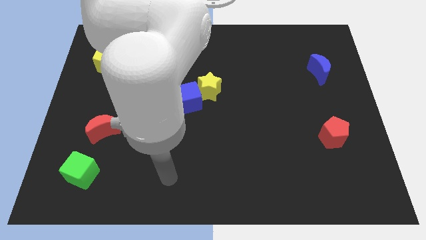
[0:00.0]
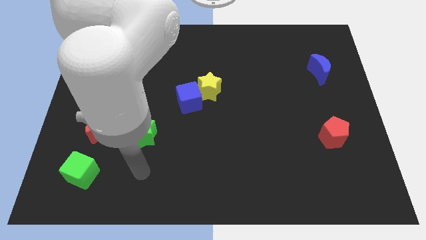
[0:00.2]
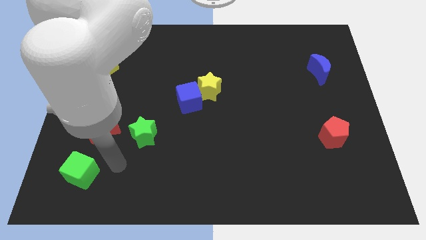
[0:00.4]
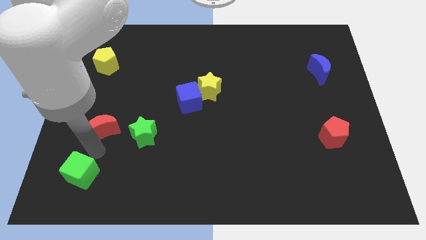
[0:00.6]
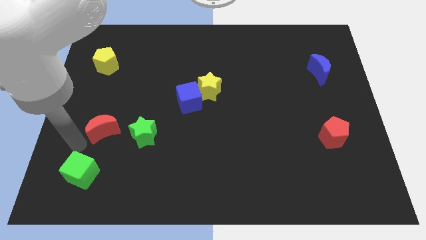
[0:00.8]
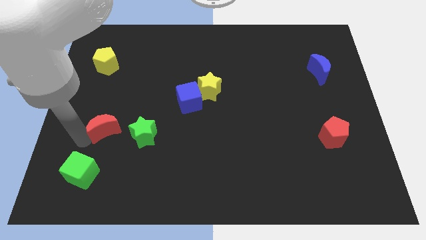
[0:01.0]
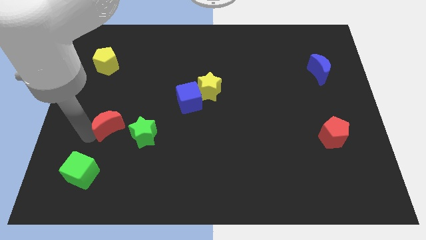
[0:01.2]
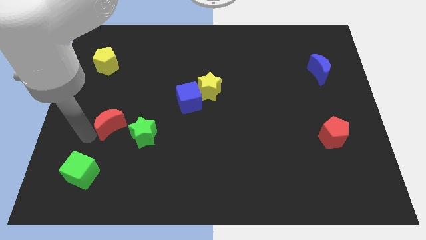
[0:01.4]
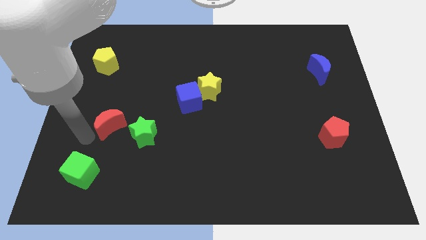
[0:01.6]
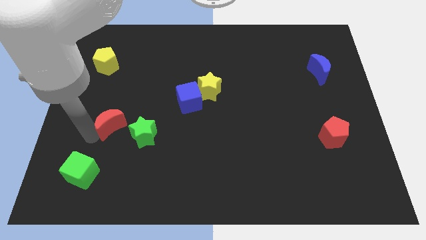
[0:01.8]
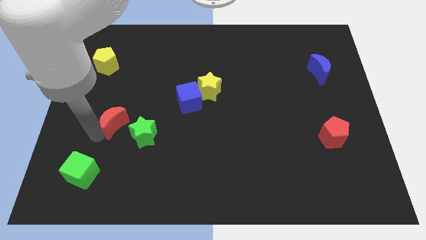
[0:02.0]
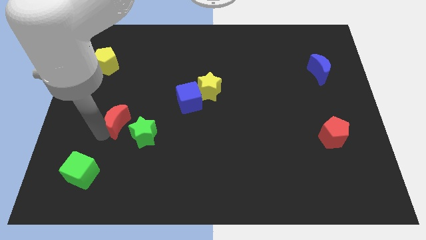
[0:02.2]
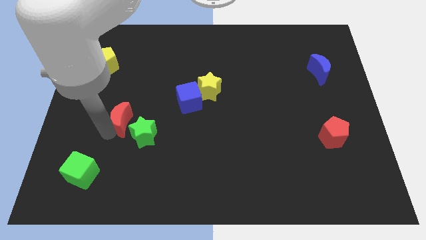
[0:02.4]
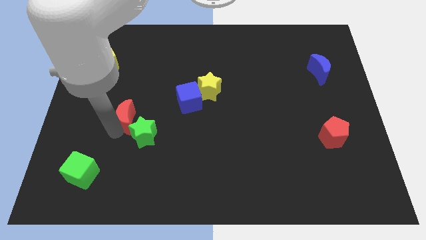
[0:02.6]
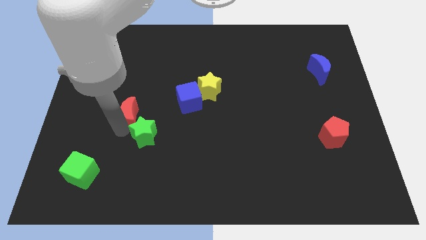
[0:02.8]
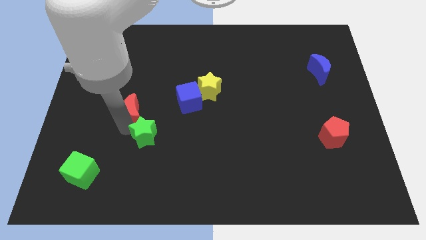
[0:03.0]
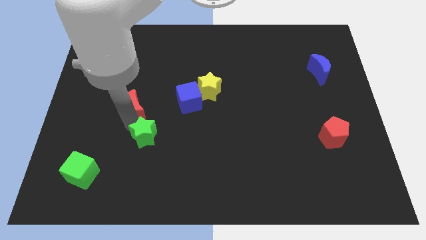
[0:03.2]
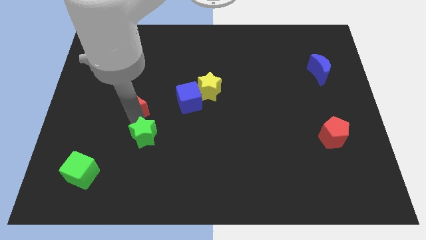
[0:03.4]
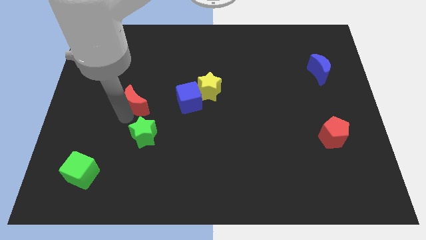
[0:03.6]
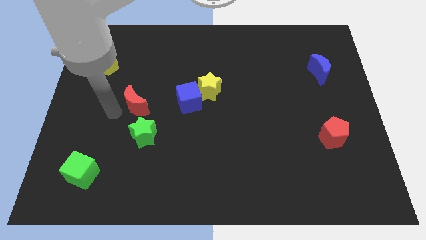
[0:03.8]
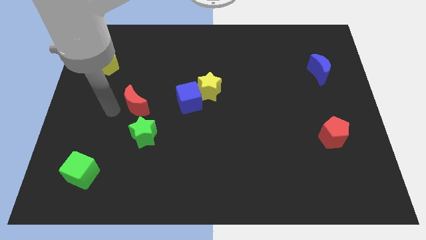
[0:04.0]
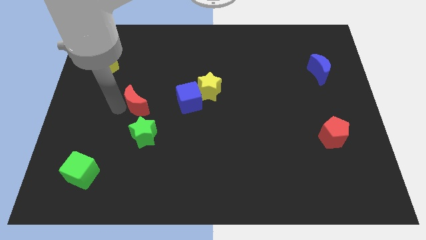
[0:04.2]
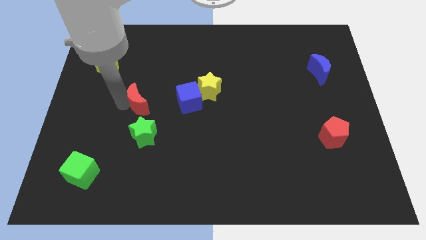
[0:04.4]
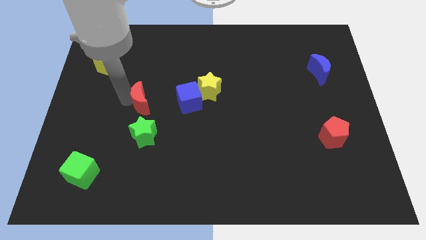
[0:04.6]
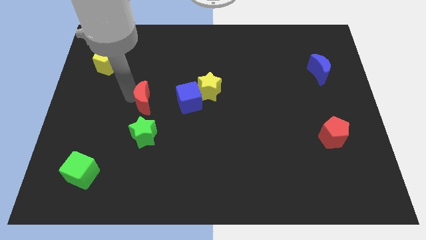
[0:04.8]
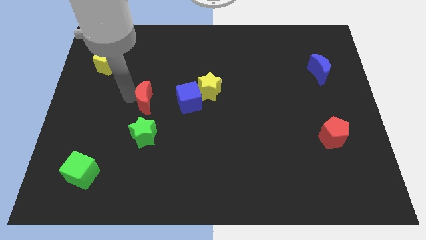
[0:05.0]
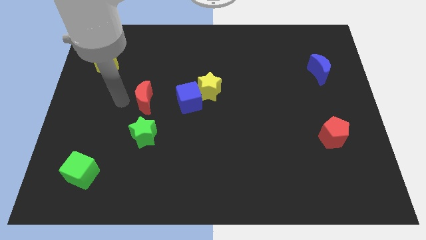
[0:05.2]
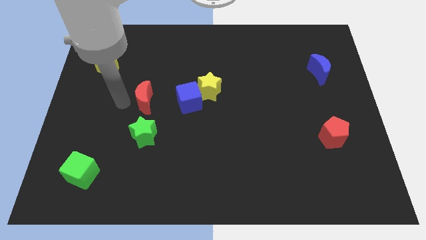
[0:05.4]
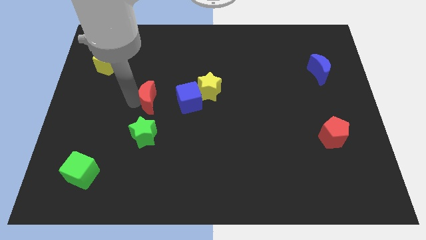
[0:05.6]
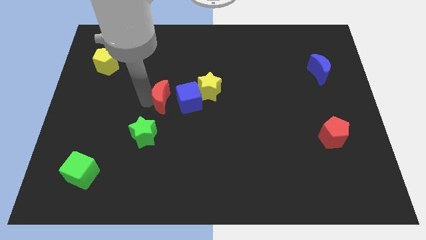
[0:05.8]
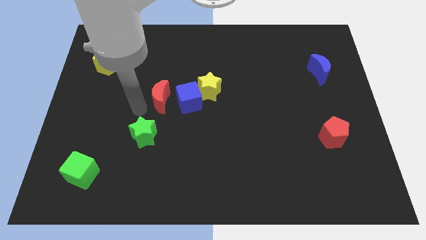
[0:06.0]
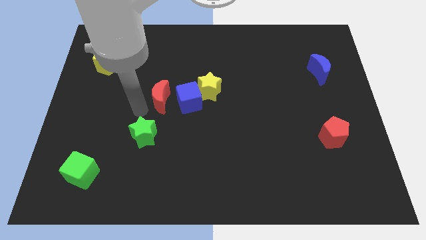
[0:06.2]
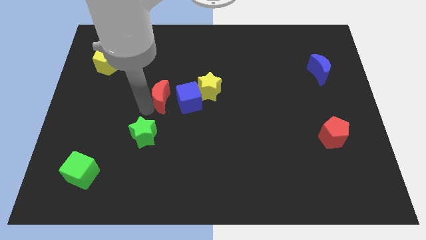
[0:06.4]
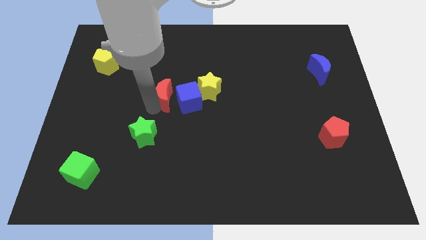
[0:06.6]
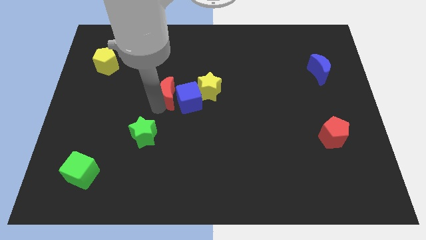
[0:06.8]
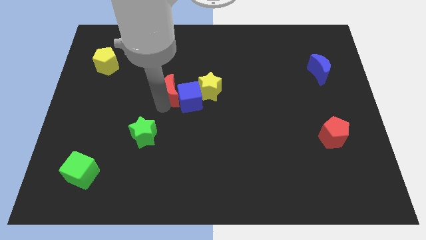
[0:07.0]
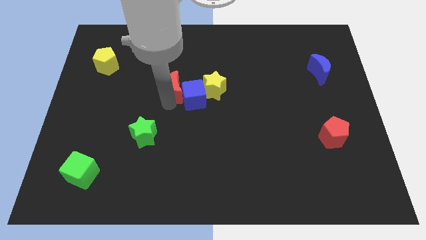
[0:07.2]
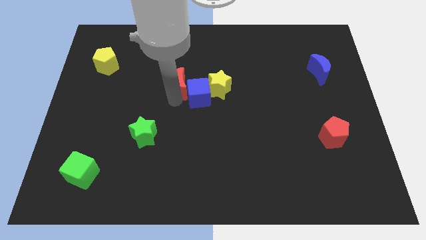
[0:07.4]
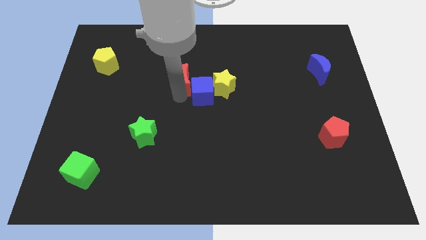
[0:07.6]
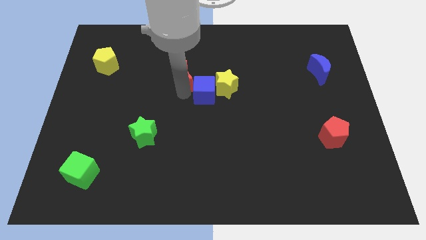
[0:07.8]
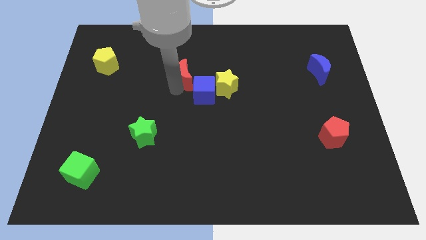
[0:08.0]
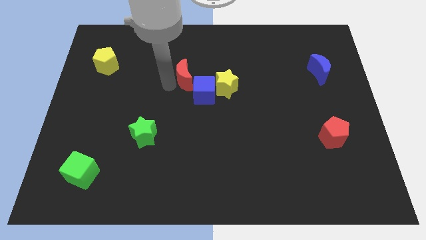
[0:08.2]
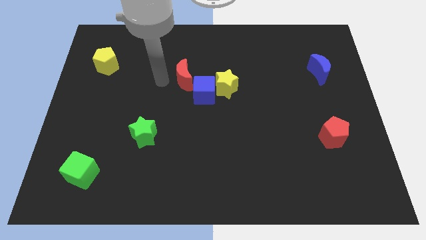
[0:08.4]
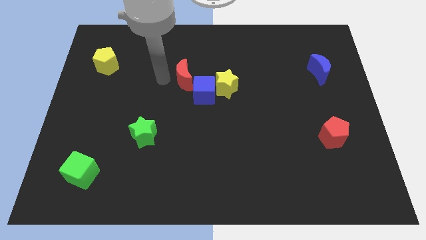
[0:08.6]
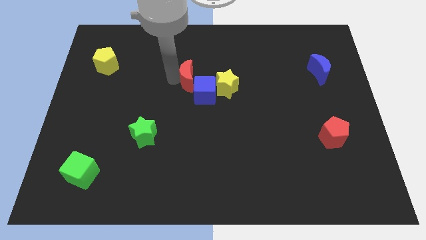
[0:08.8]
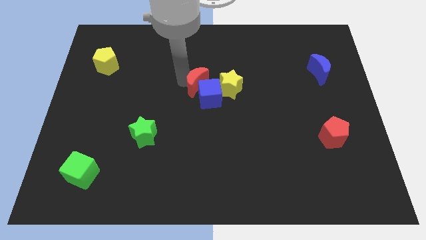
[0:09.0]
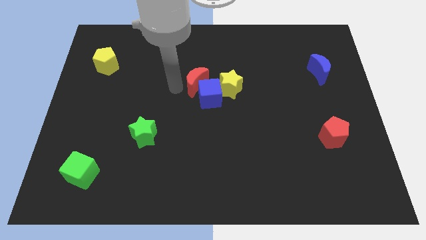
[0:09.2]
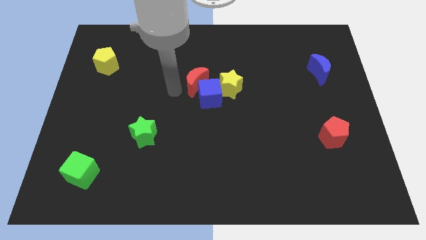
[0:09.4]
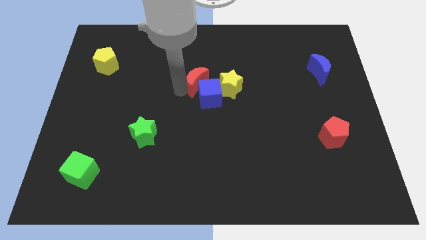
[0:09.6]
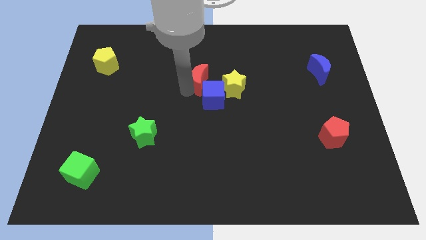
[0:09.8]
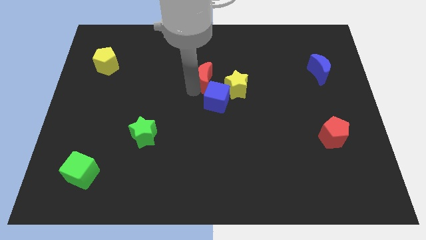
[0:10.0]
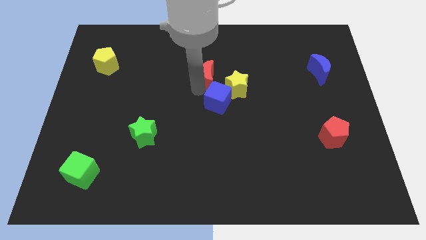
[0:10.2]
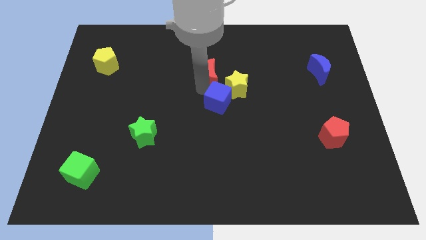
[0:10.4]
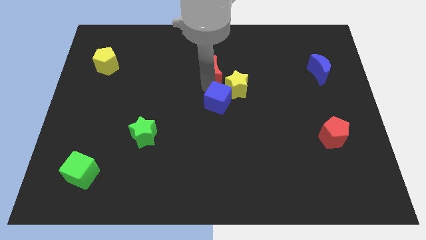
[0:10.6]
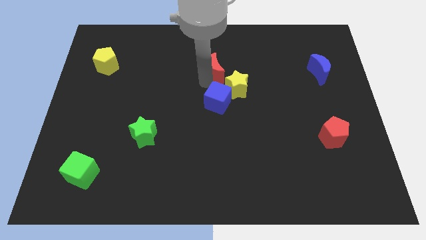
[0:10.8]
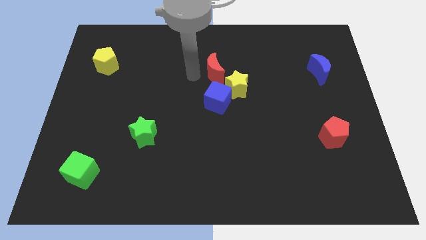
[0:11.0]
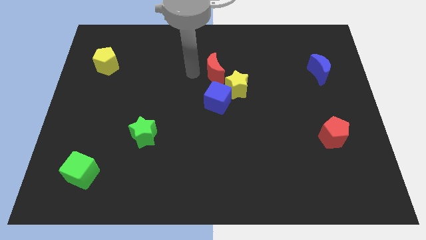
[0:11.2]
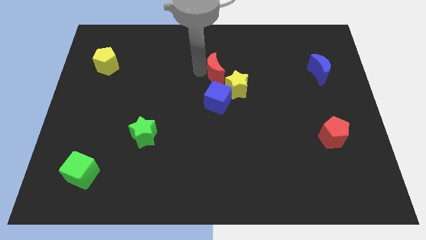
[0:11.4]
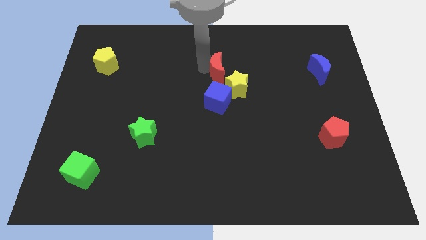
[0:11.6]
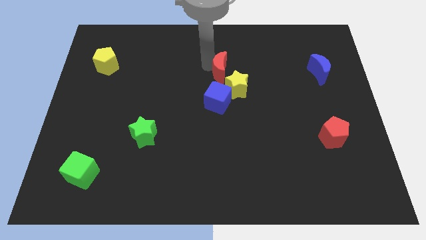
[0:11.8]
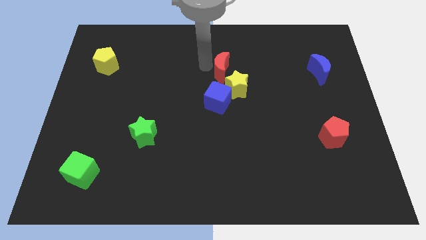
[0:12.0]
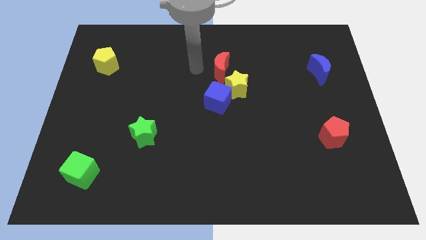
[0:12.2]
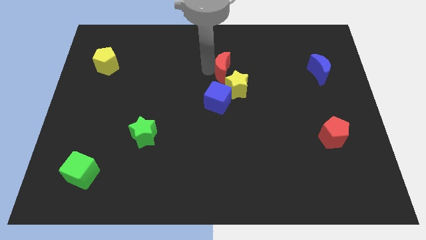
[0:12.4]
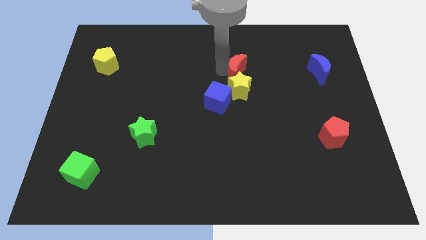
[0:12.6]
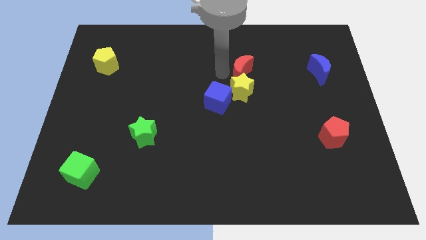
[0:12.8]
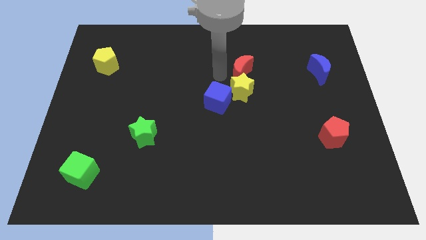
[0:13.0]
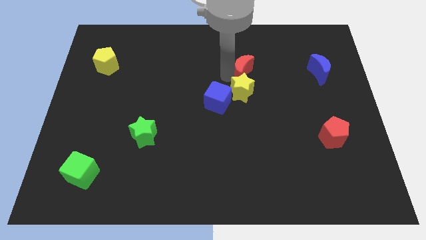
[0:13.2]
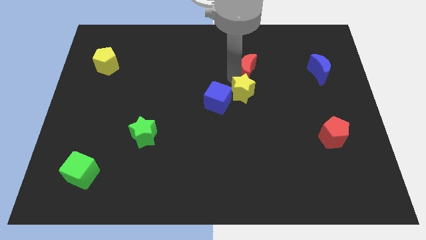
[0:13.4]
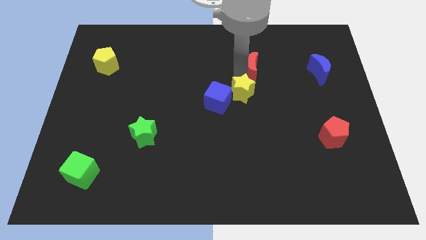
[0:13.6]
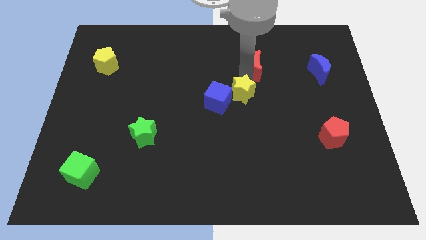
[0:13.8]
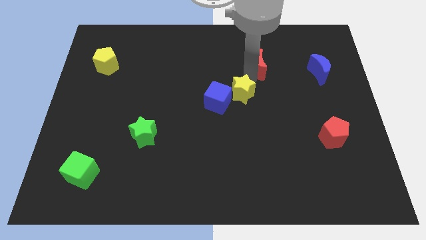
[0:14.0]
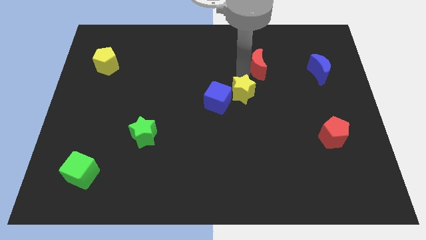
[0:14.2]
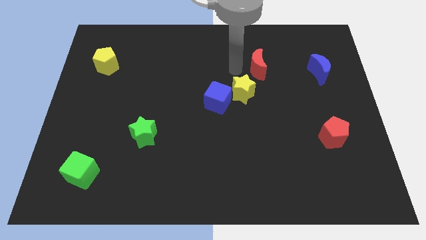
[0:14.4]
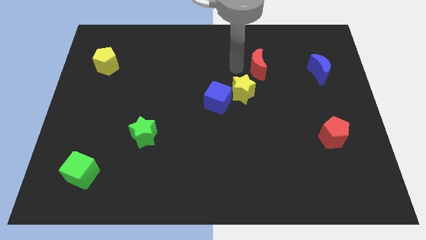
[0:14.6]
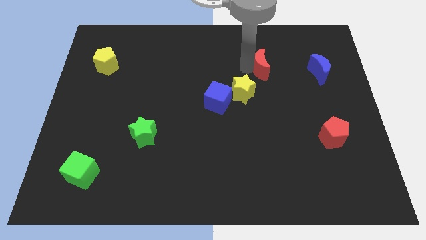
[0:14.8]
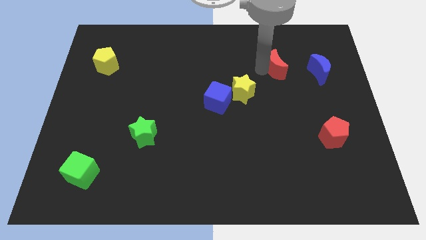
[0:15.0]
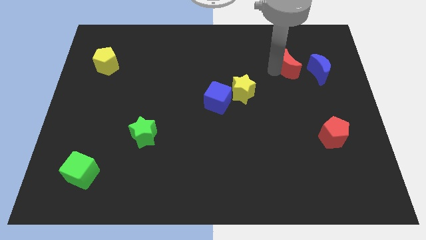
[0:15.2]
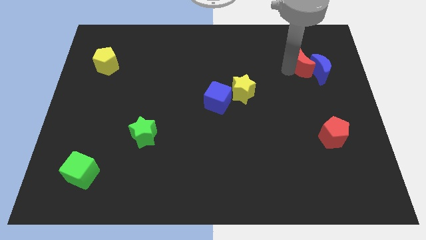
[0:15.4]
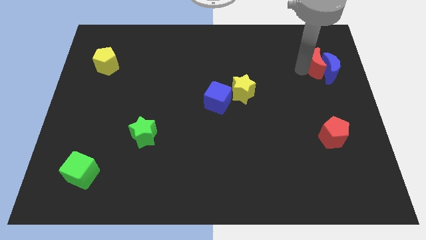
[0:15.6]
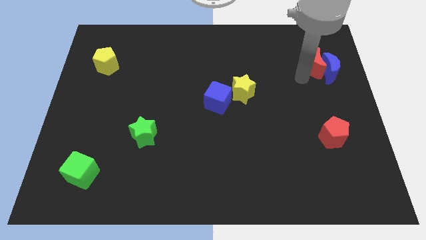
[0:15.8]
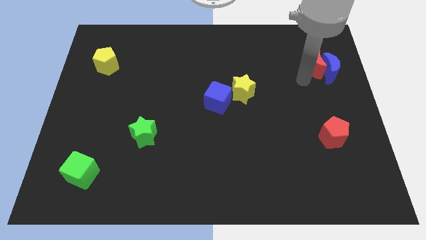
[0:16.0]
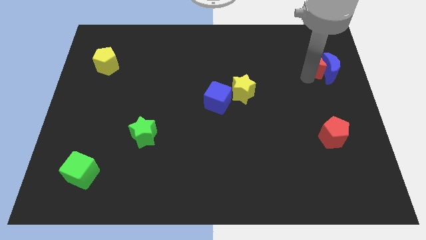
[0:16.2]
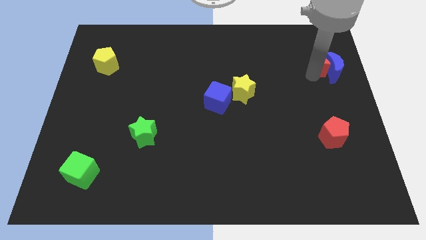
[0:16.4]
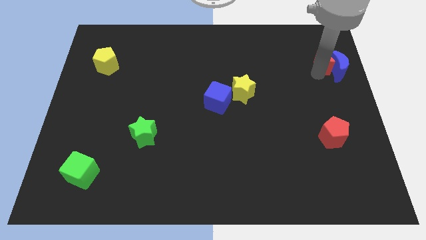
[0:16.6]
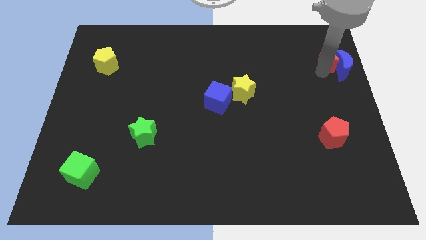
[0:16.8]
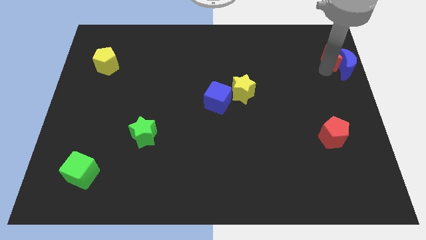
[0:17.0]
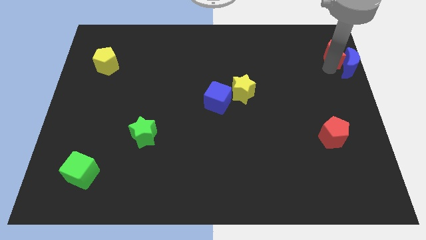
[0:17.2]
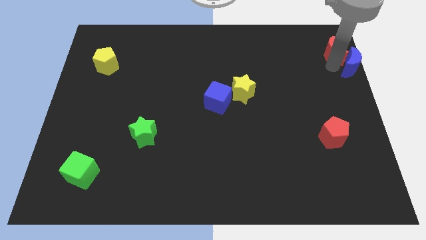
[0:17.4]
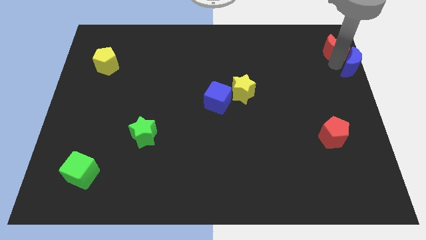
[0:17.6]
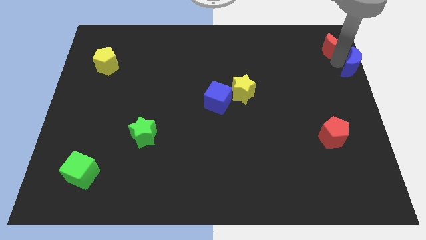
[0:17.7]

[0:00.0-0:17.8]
move the red moon to the top right
